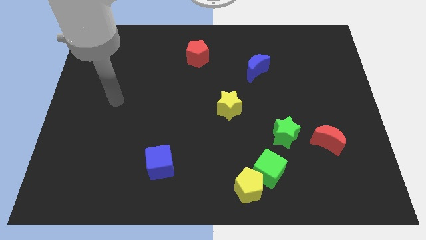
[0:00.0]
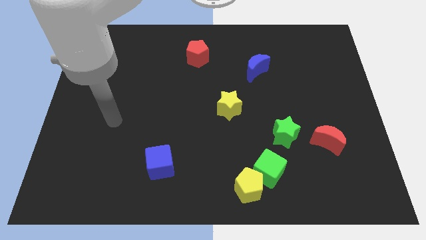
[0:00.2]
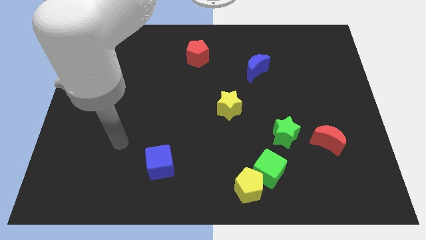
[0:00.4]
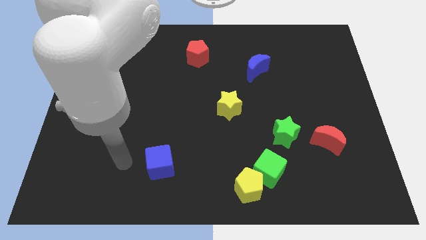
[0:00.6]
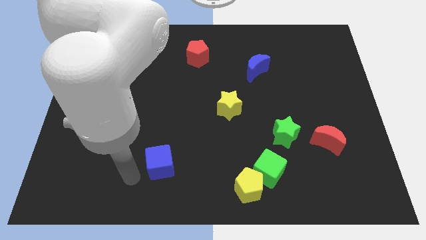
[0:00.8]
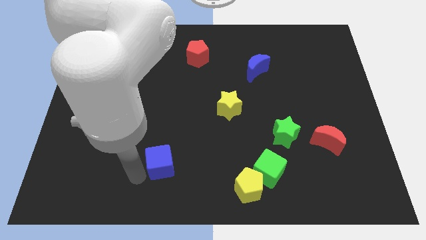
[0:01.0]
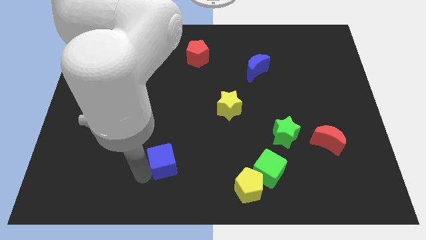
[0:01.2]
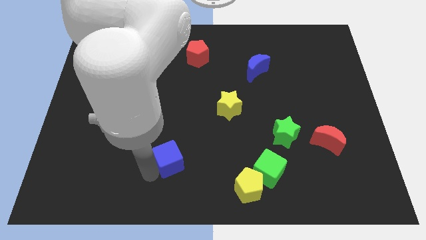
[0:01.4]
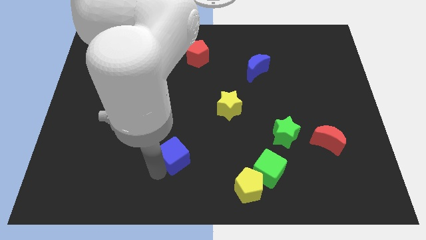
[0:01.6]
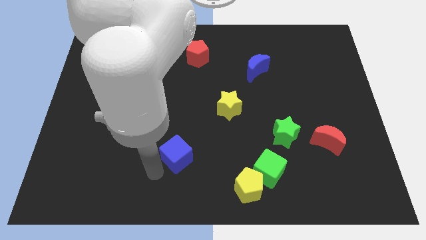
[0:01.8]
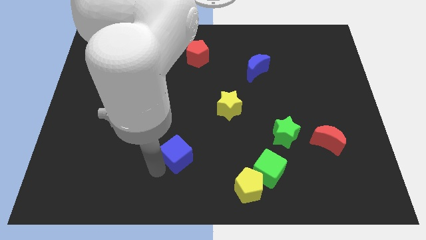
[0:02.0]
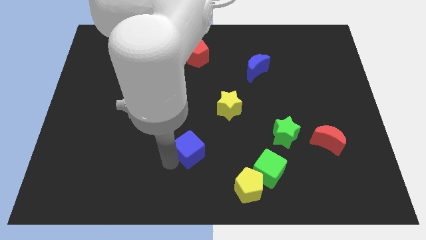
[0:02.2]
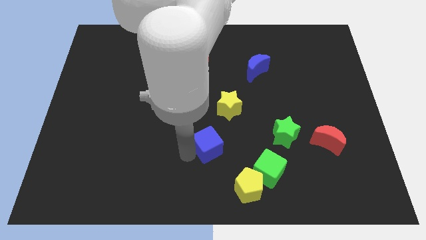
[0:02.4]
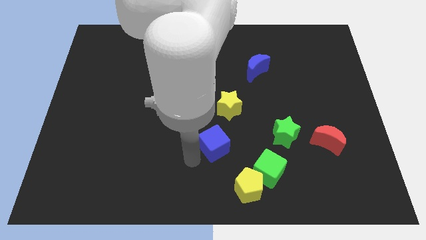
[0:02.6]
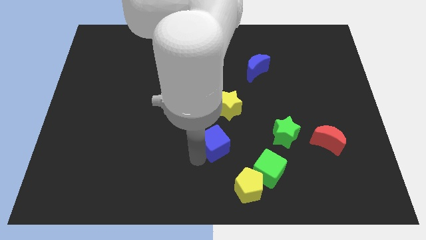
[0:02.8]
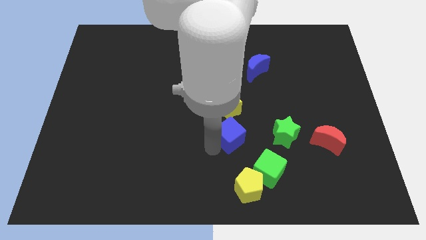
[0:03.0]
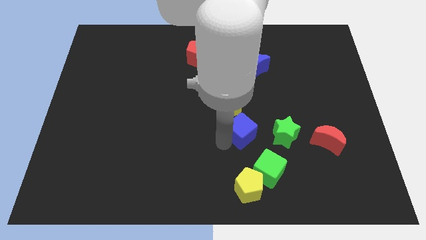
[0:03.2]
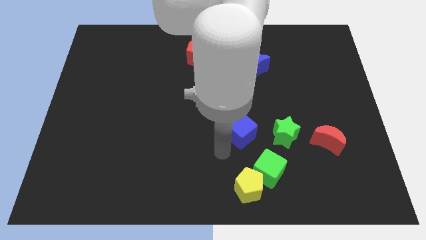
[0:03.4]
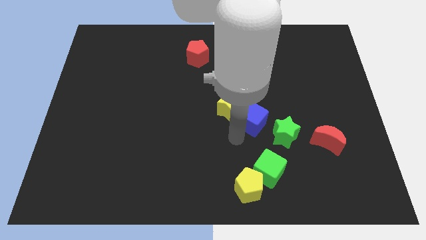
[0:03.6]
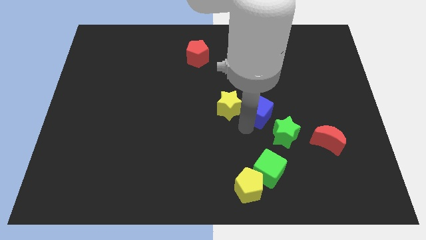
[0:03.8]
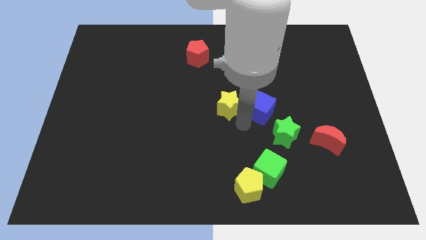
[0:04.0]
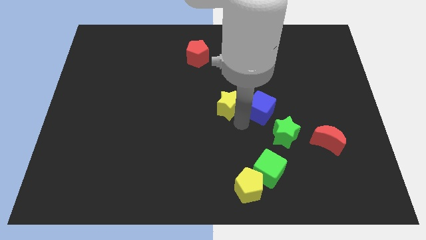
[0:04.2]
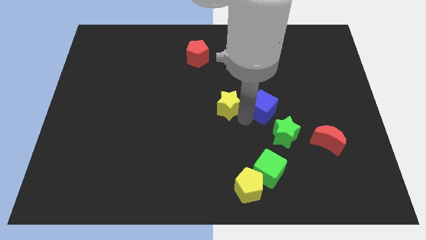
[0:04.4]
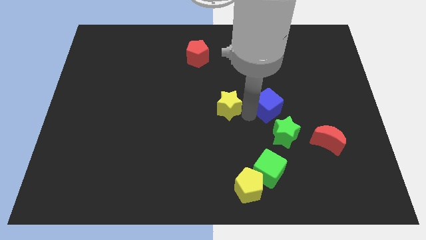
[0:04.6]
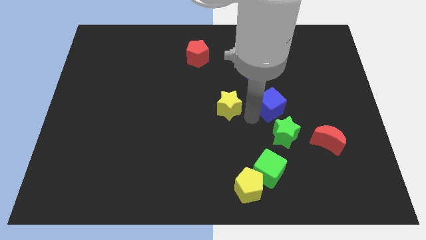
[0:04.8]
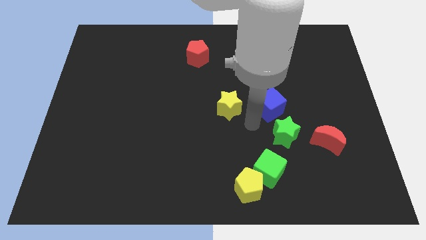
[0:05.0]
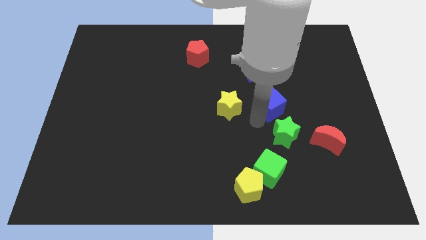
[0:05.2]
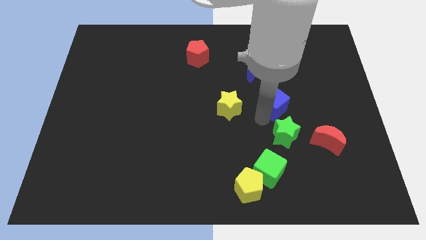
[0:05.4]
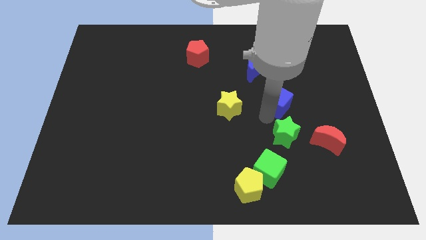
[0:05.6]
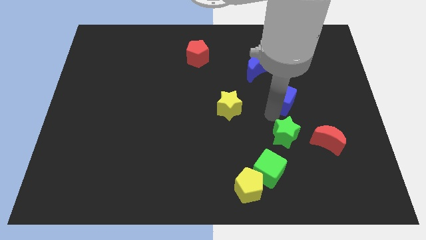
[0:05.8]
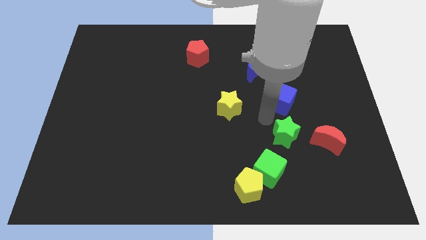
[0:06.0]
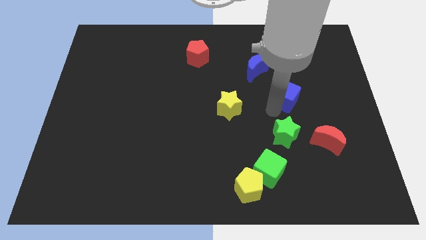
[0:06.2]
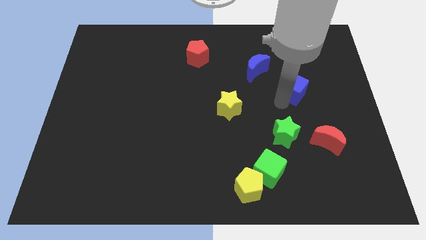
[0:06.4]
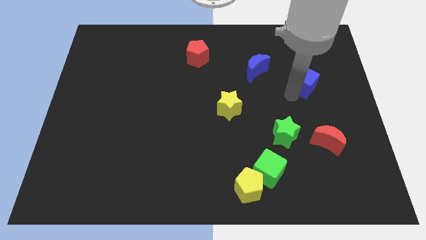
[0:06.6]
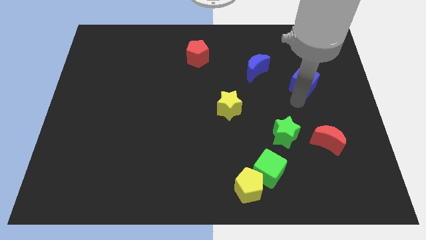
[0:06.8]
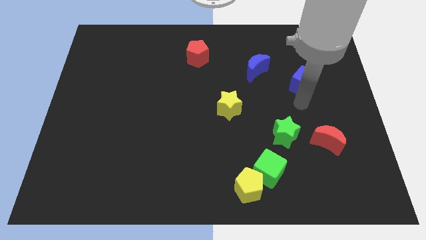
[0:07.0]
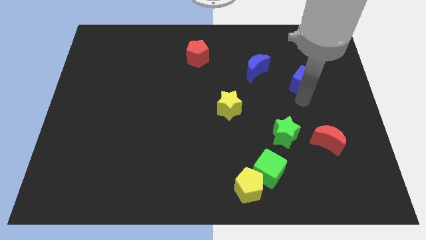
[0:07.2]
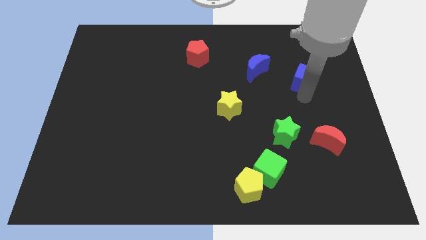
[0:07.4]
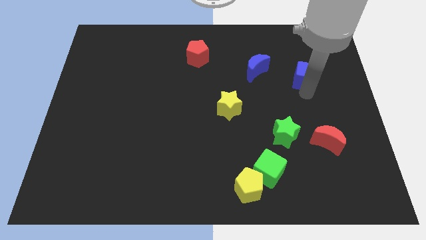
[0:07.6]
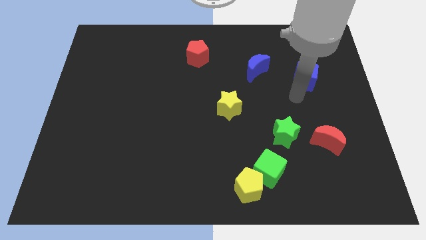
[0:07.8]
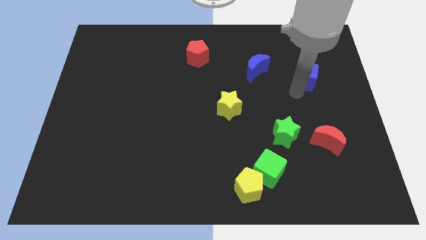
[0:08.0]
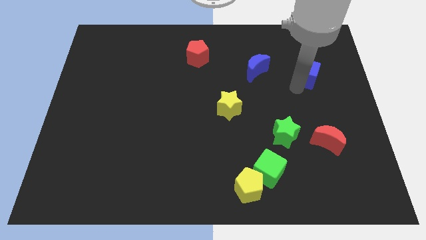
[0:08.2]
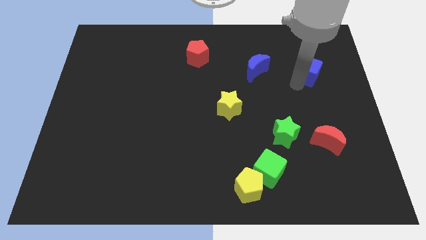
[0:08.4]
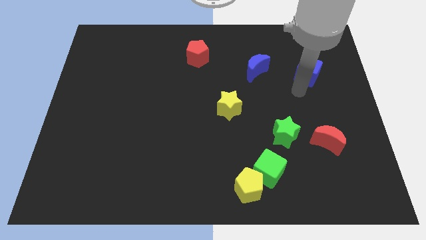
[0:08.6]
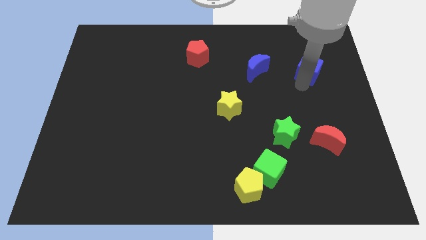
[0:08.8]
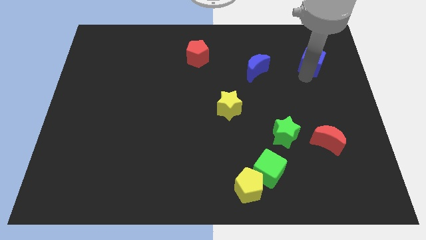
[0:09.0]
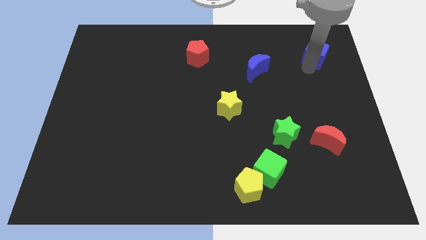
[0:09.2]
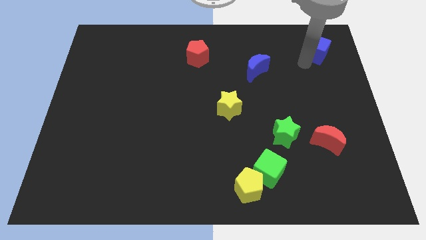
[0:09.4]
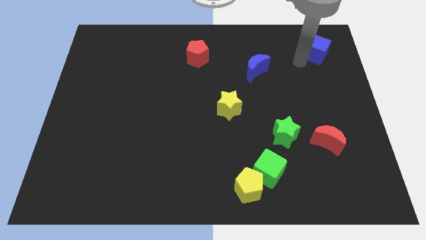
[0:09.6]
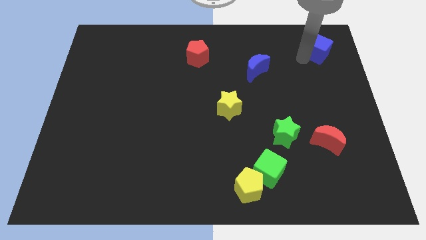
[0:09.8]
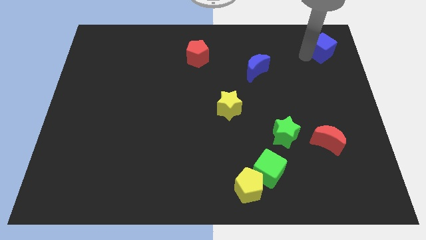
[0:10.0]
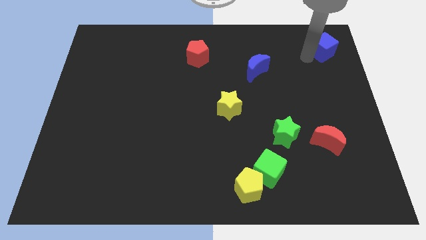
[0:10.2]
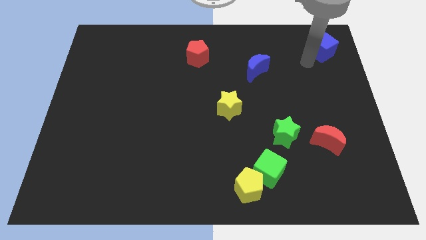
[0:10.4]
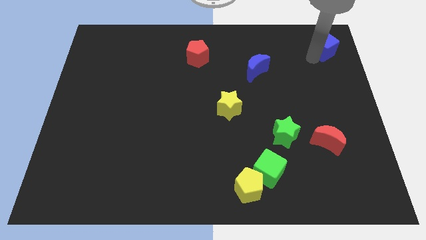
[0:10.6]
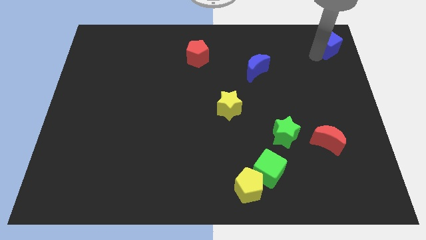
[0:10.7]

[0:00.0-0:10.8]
move the blue cube to the top right of the board
